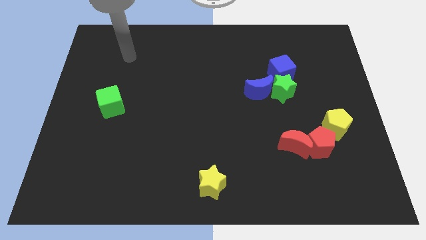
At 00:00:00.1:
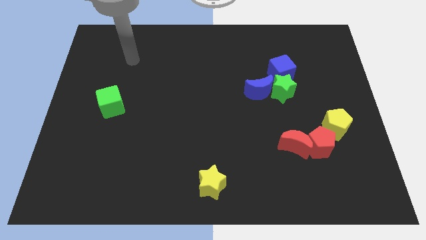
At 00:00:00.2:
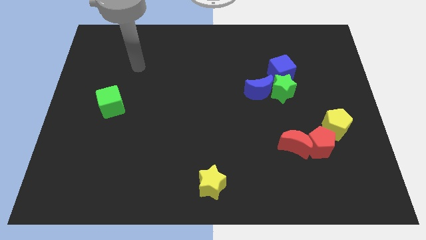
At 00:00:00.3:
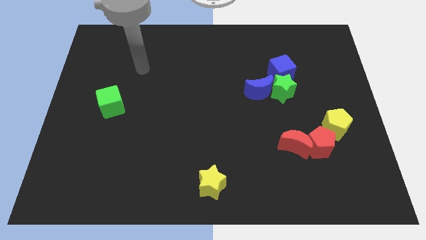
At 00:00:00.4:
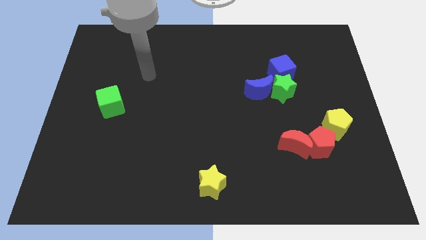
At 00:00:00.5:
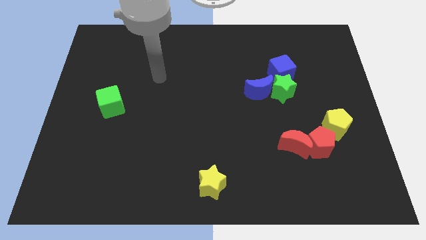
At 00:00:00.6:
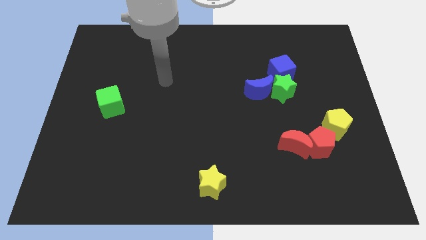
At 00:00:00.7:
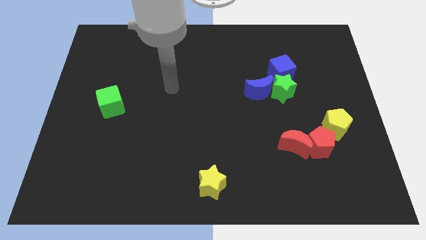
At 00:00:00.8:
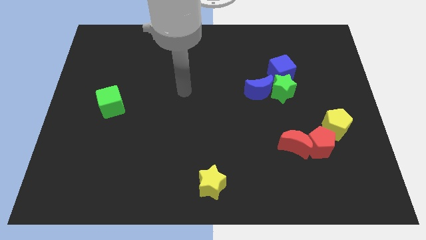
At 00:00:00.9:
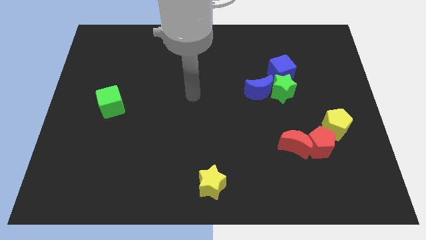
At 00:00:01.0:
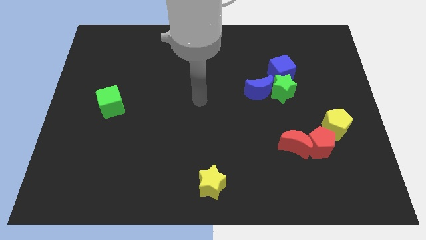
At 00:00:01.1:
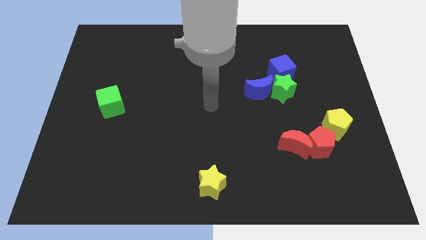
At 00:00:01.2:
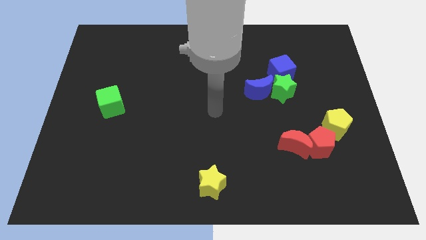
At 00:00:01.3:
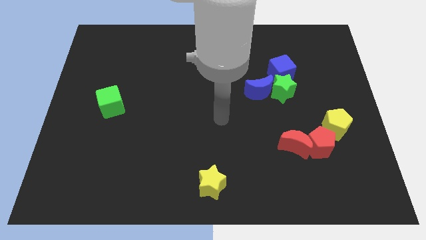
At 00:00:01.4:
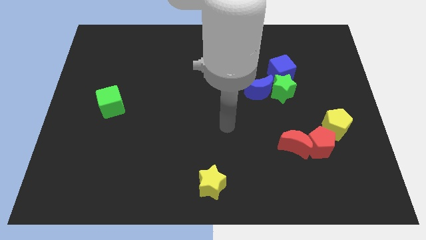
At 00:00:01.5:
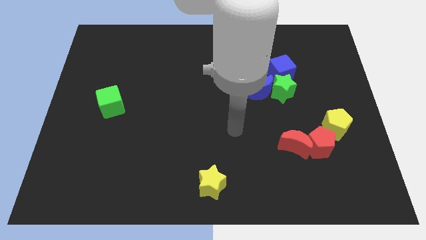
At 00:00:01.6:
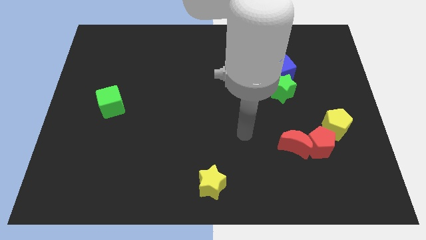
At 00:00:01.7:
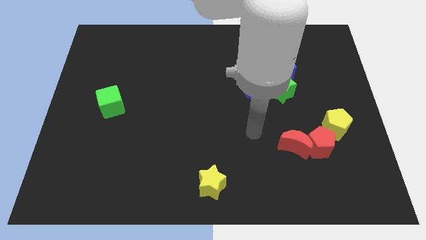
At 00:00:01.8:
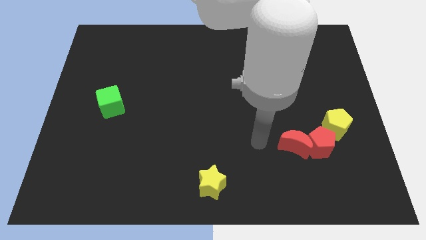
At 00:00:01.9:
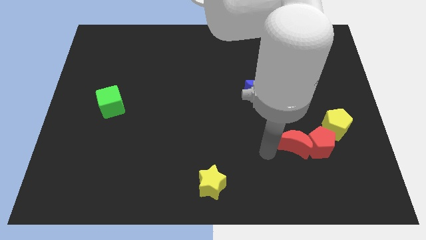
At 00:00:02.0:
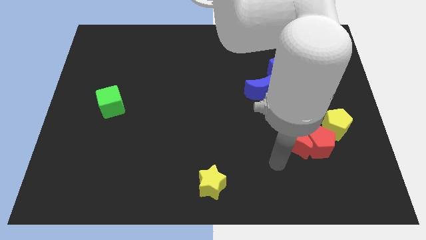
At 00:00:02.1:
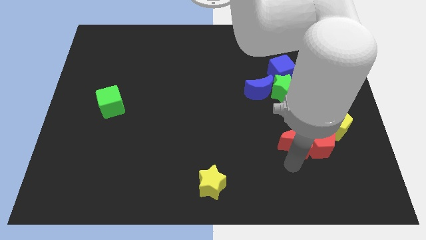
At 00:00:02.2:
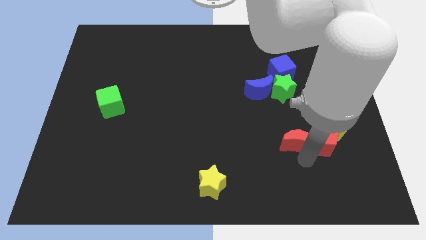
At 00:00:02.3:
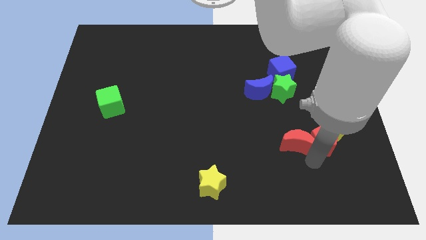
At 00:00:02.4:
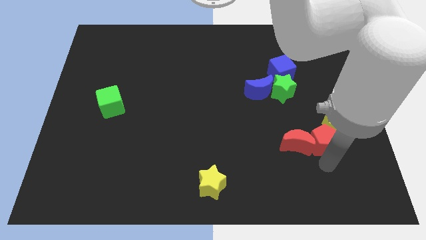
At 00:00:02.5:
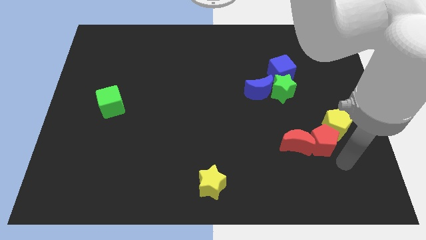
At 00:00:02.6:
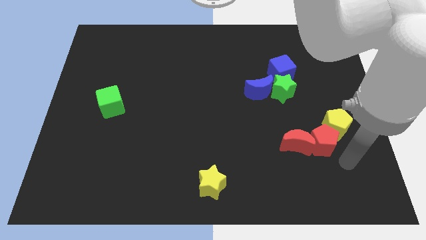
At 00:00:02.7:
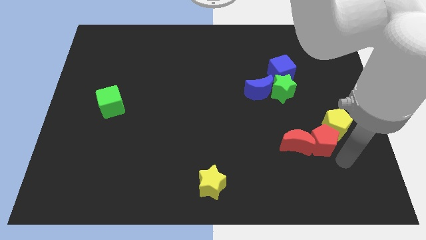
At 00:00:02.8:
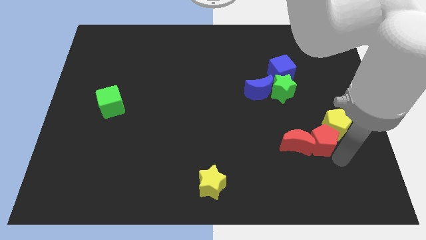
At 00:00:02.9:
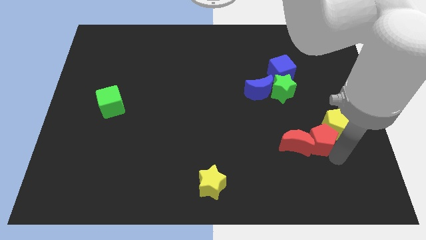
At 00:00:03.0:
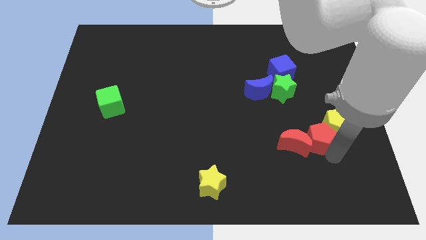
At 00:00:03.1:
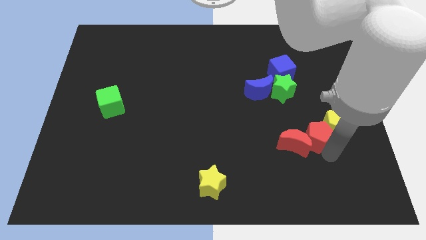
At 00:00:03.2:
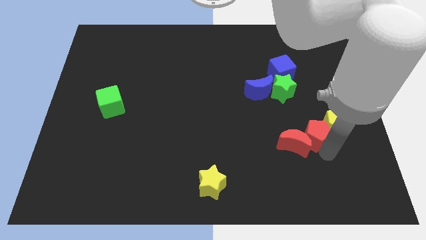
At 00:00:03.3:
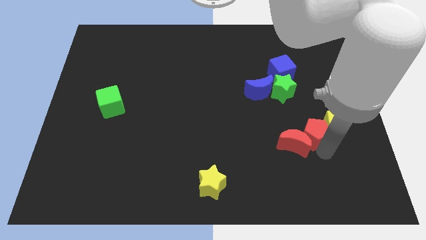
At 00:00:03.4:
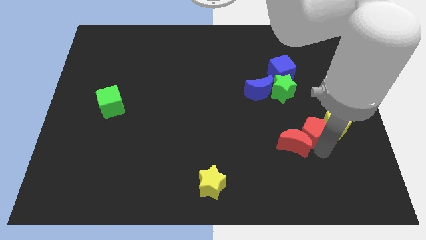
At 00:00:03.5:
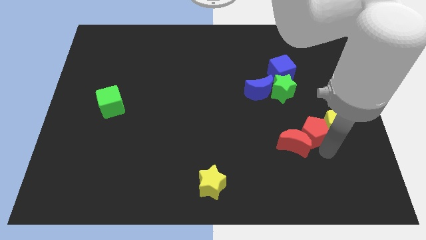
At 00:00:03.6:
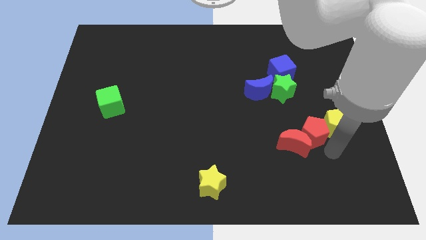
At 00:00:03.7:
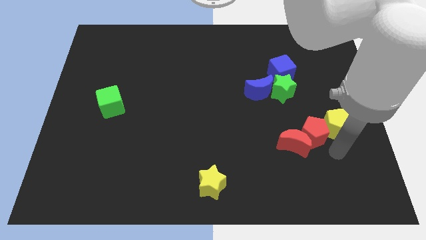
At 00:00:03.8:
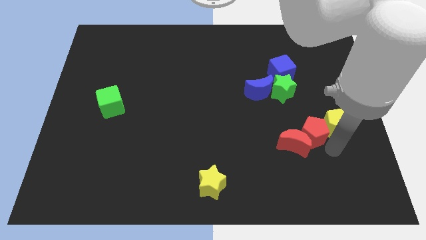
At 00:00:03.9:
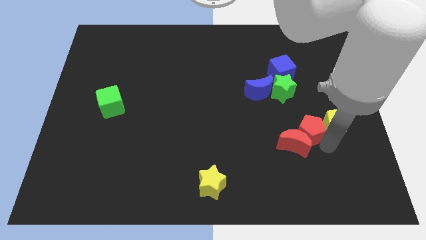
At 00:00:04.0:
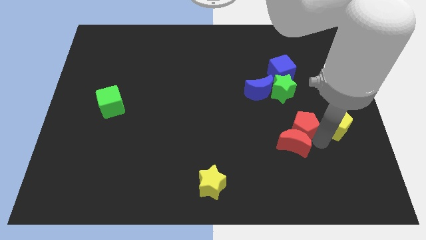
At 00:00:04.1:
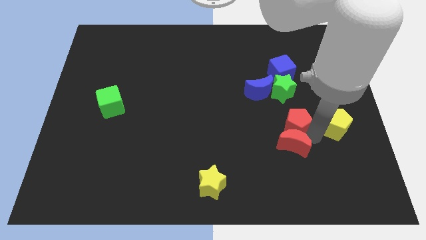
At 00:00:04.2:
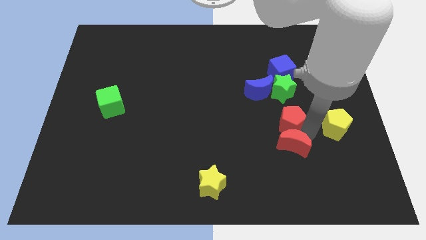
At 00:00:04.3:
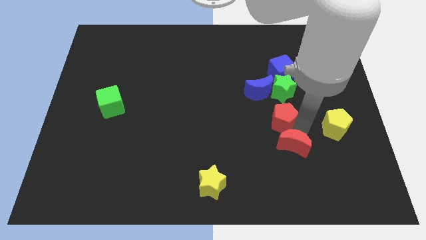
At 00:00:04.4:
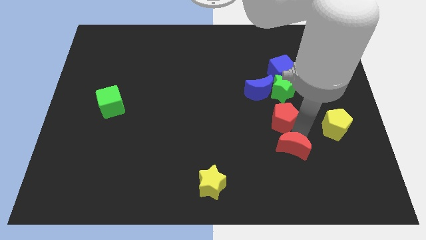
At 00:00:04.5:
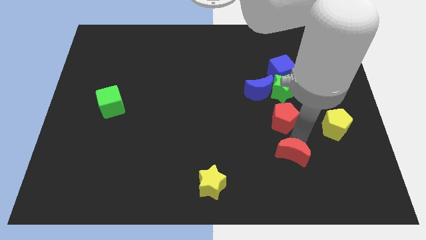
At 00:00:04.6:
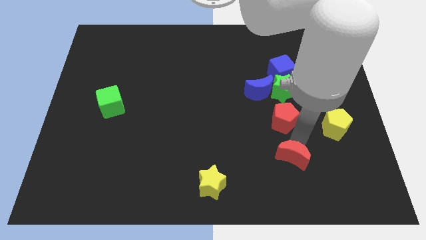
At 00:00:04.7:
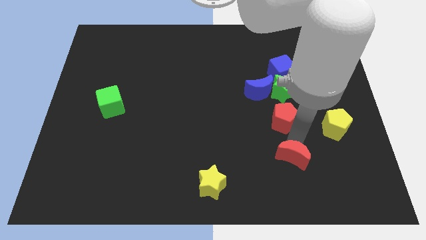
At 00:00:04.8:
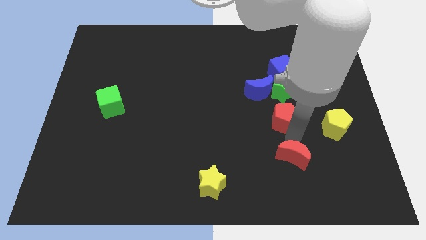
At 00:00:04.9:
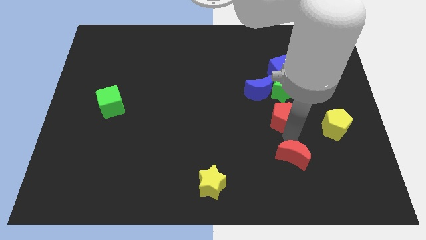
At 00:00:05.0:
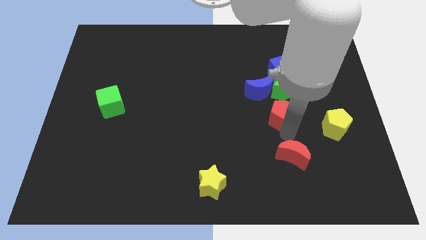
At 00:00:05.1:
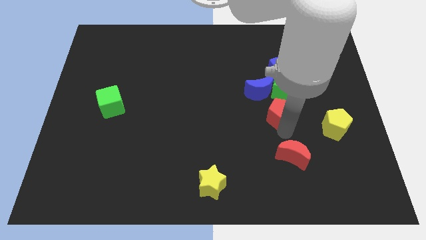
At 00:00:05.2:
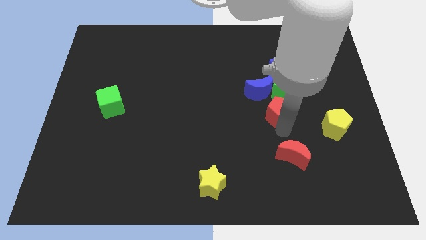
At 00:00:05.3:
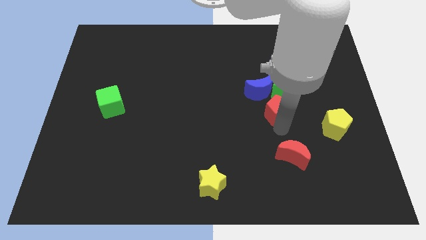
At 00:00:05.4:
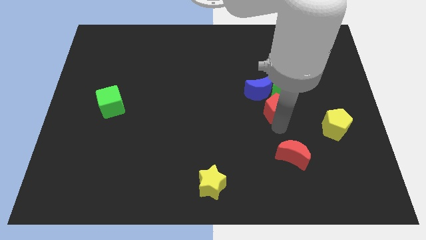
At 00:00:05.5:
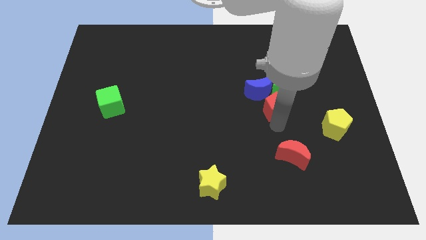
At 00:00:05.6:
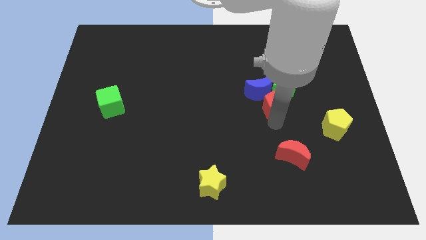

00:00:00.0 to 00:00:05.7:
move the red pentagon to the blue moon

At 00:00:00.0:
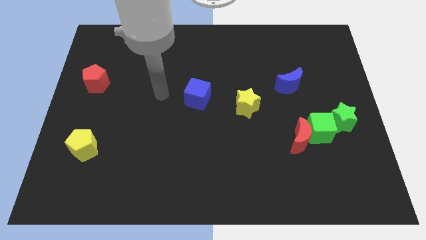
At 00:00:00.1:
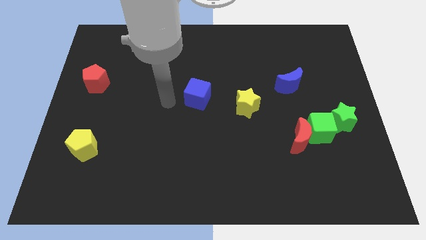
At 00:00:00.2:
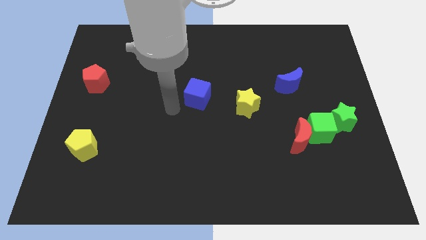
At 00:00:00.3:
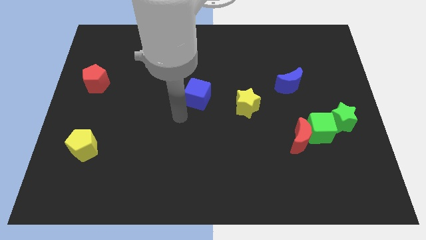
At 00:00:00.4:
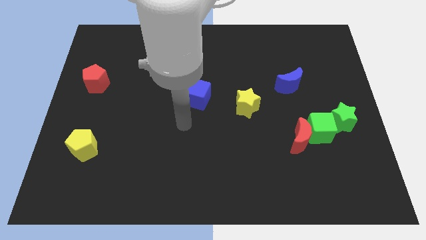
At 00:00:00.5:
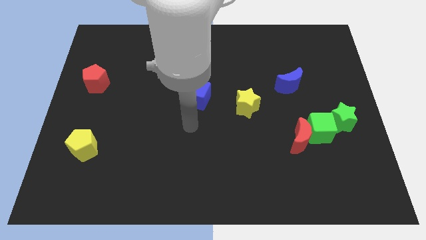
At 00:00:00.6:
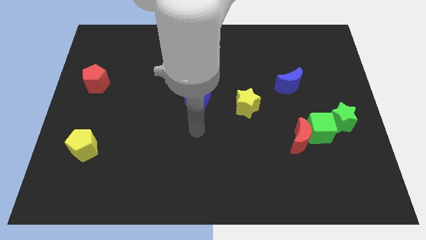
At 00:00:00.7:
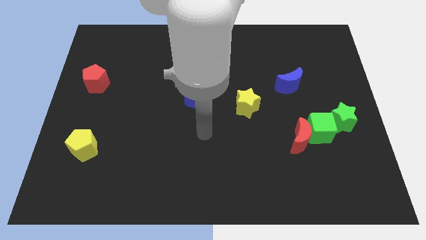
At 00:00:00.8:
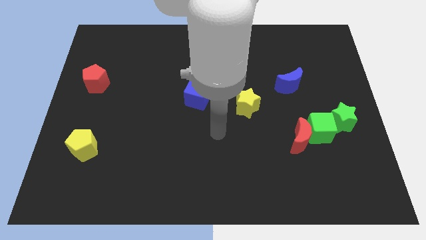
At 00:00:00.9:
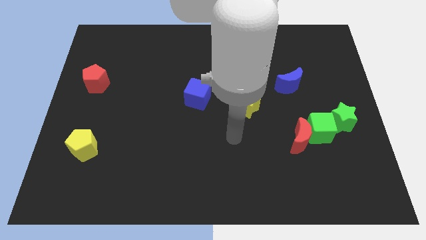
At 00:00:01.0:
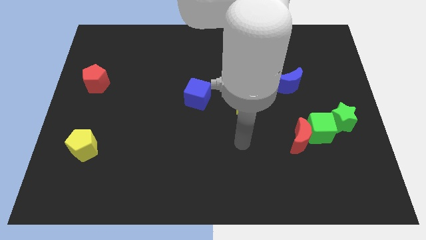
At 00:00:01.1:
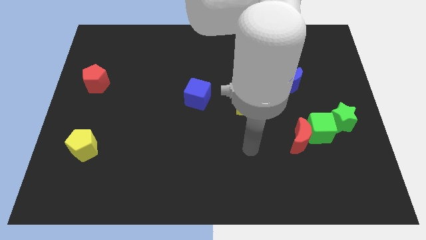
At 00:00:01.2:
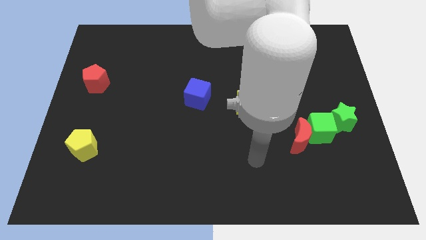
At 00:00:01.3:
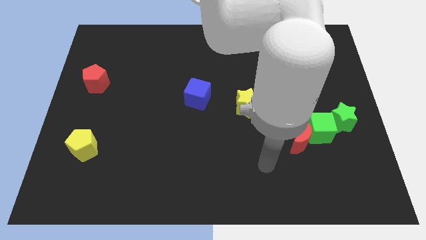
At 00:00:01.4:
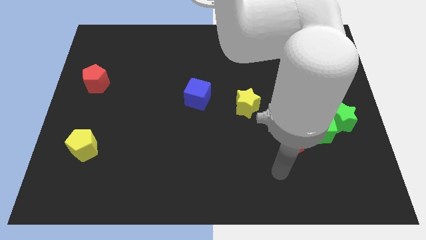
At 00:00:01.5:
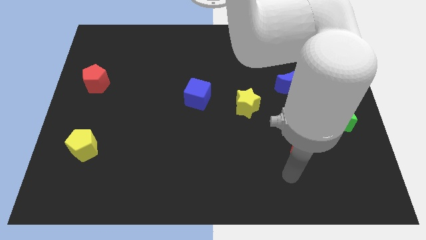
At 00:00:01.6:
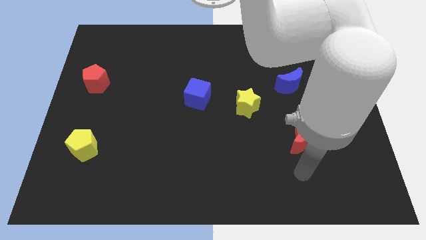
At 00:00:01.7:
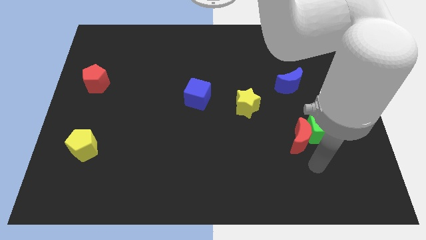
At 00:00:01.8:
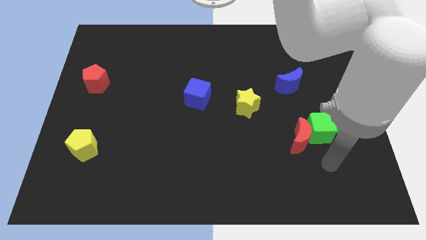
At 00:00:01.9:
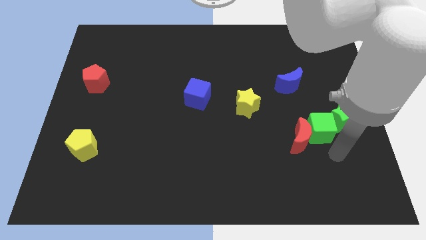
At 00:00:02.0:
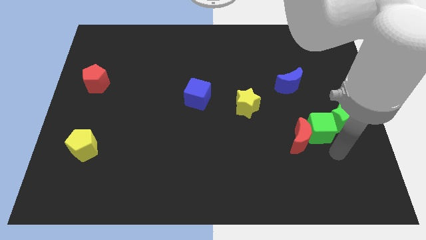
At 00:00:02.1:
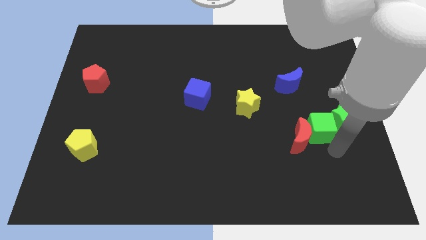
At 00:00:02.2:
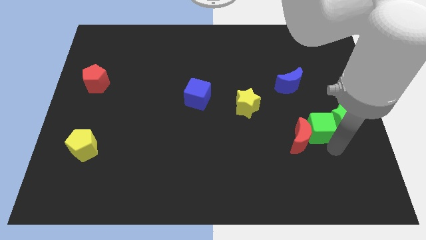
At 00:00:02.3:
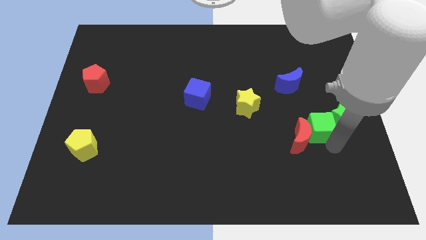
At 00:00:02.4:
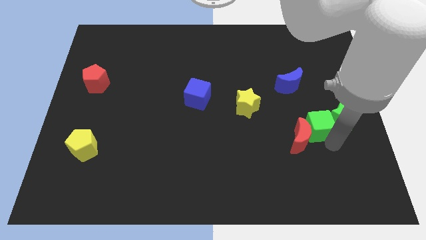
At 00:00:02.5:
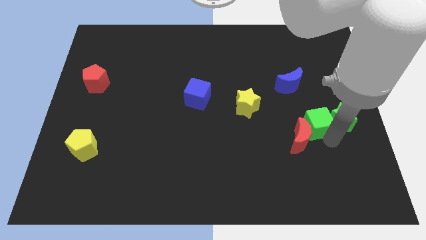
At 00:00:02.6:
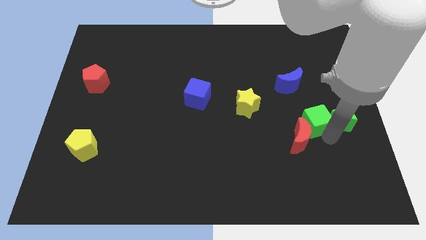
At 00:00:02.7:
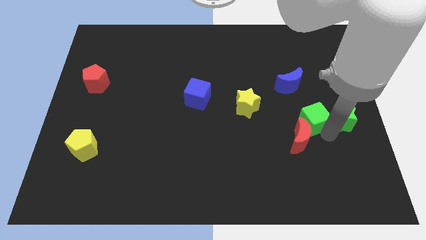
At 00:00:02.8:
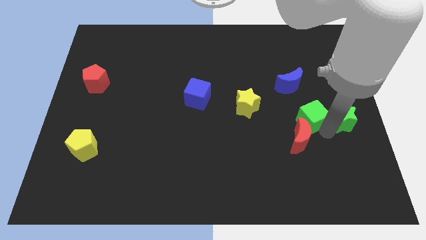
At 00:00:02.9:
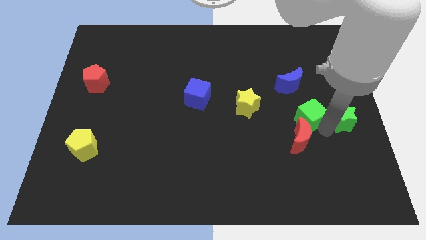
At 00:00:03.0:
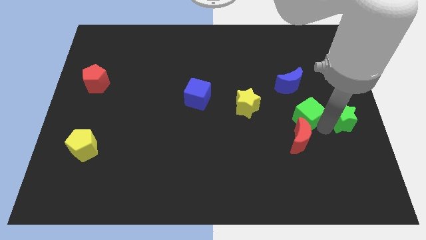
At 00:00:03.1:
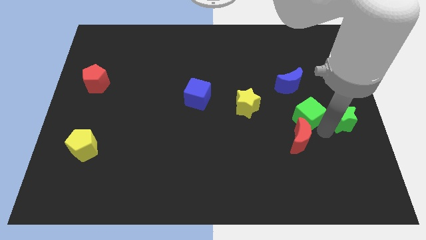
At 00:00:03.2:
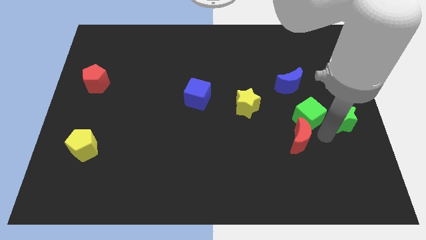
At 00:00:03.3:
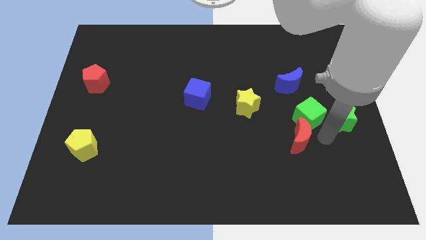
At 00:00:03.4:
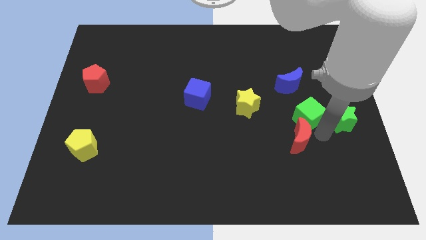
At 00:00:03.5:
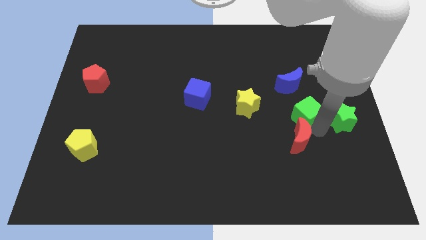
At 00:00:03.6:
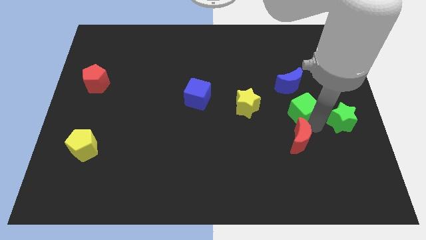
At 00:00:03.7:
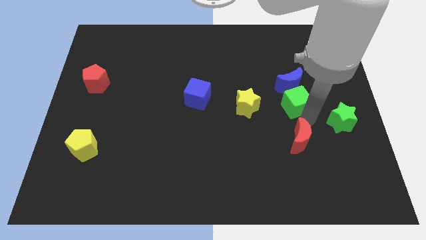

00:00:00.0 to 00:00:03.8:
put the green cube to the blue moon
